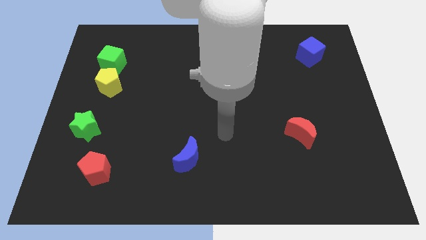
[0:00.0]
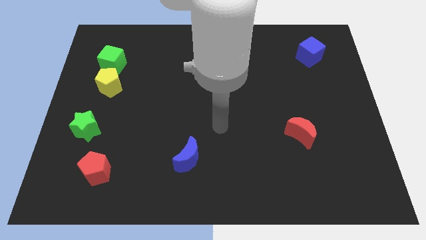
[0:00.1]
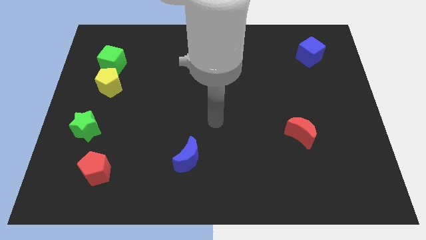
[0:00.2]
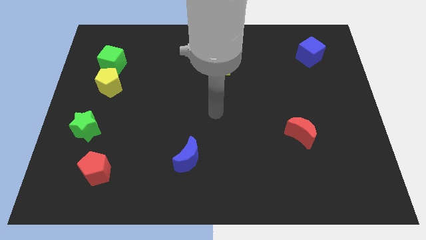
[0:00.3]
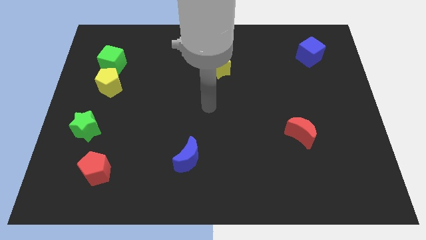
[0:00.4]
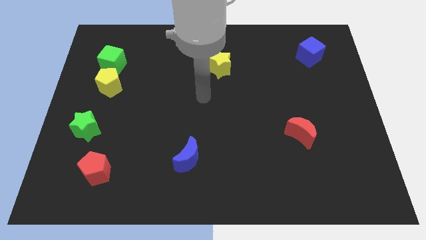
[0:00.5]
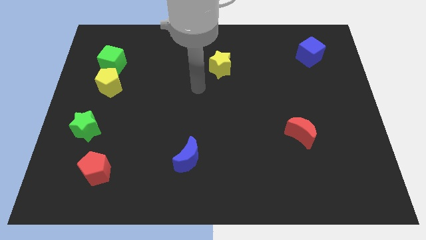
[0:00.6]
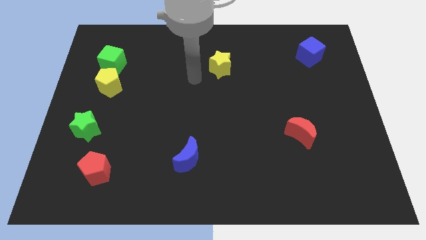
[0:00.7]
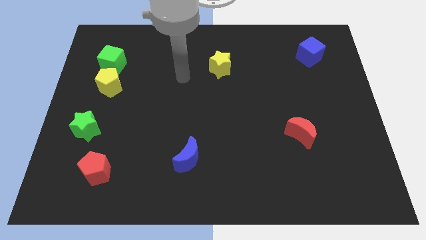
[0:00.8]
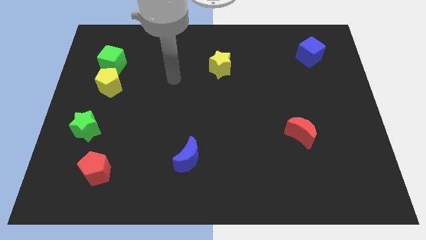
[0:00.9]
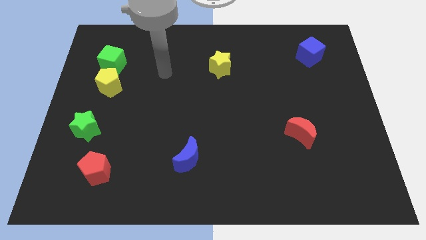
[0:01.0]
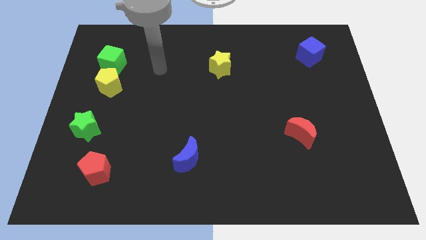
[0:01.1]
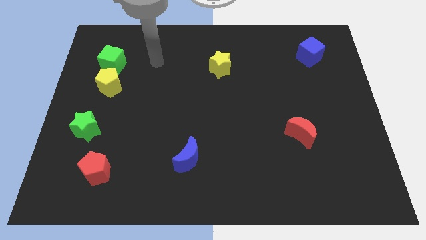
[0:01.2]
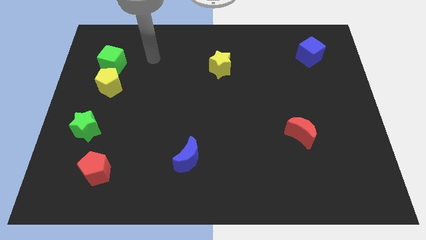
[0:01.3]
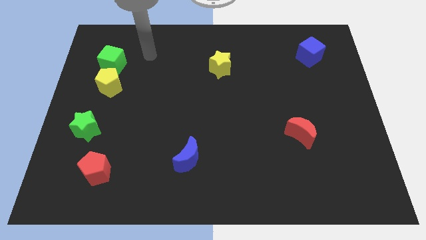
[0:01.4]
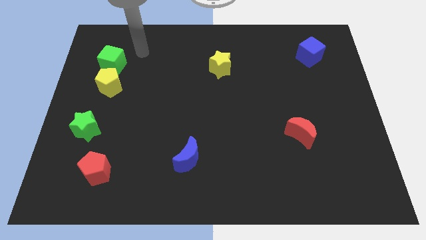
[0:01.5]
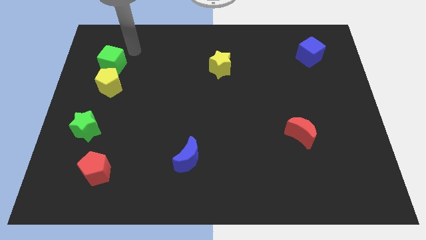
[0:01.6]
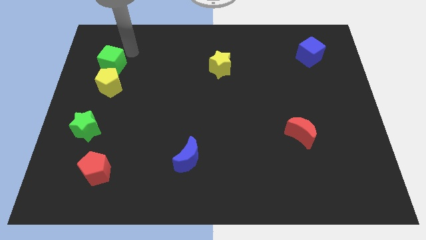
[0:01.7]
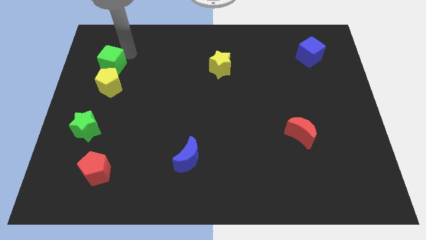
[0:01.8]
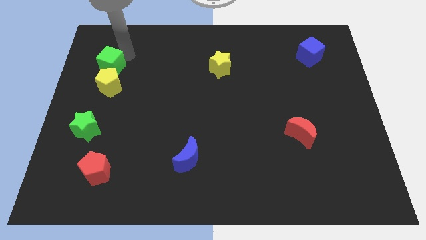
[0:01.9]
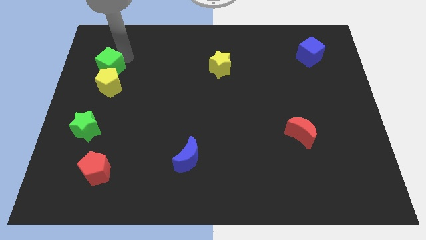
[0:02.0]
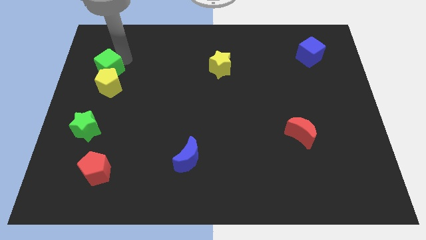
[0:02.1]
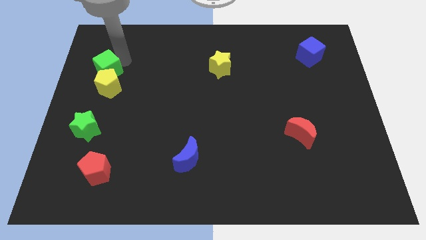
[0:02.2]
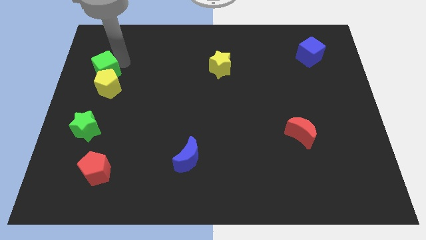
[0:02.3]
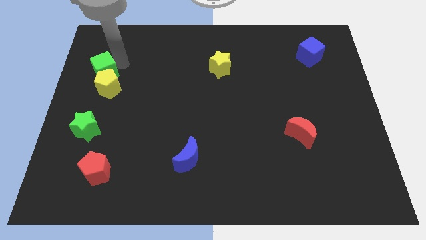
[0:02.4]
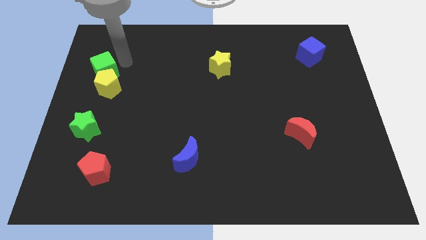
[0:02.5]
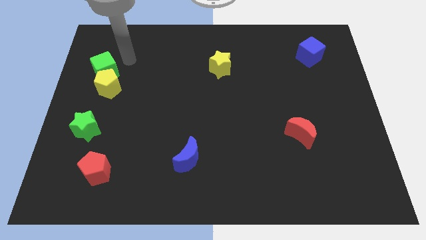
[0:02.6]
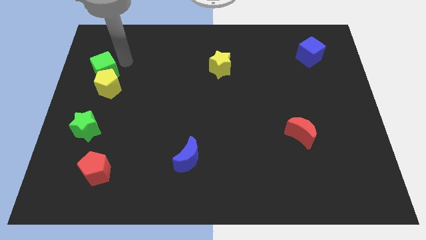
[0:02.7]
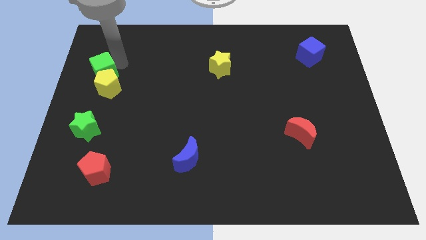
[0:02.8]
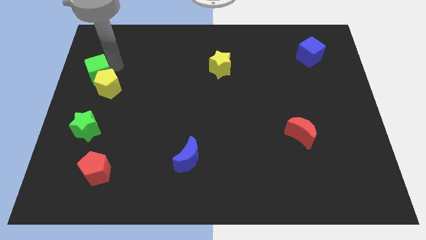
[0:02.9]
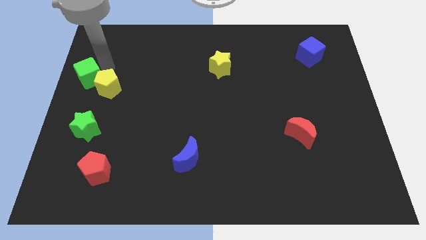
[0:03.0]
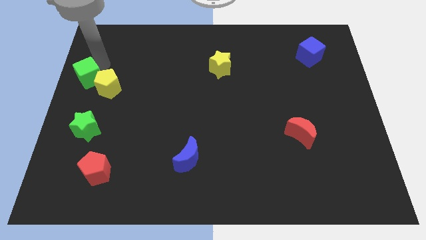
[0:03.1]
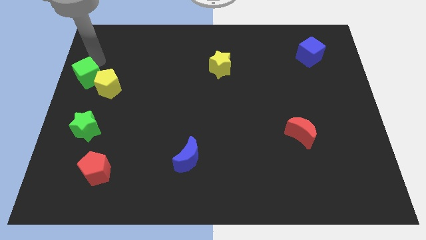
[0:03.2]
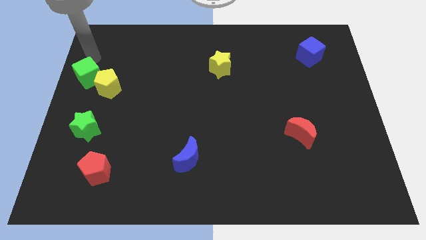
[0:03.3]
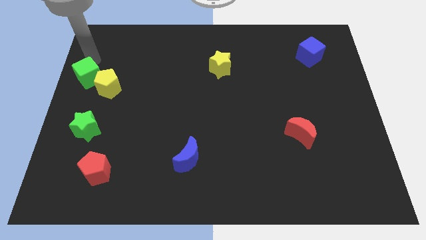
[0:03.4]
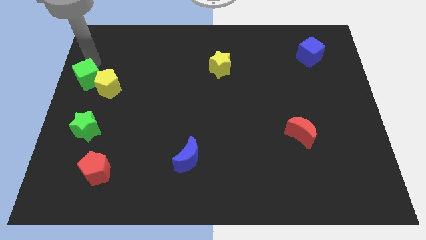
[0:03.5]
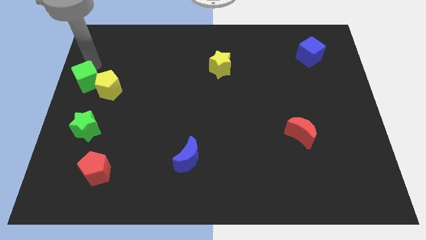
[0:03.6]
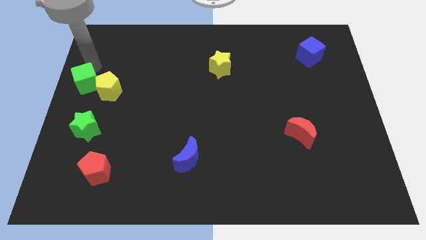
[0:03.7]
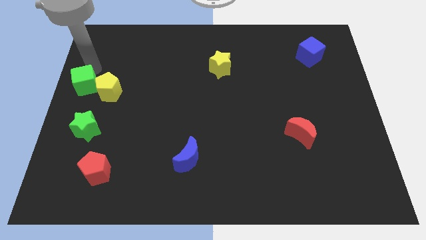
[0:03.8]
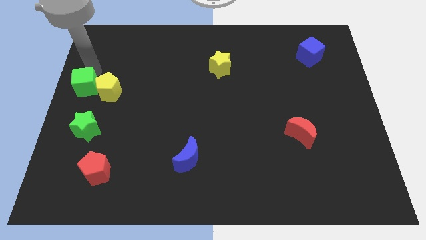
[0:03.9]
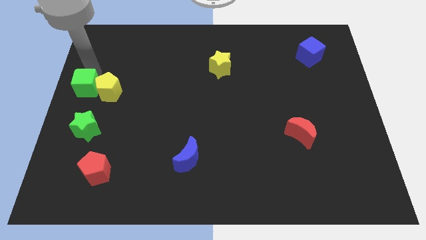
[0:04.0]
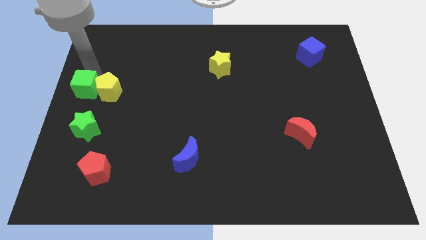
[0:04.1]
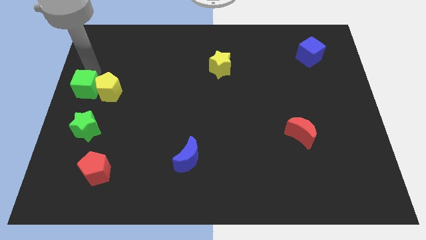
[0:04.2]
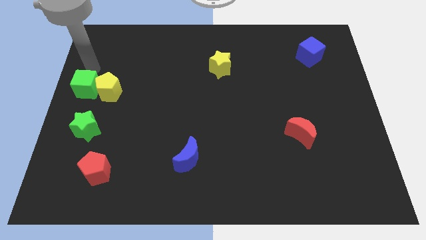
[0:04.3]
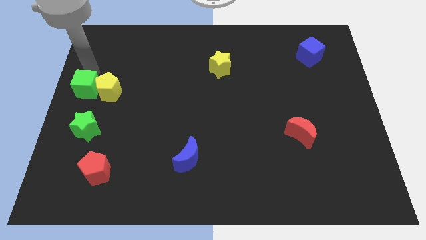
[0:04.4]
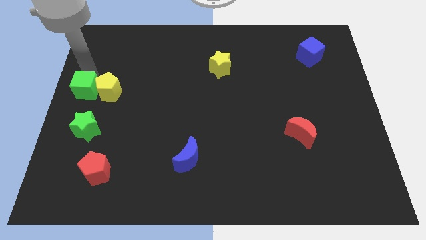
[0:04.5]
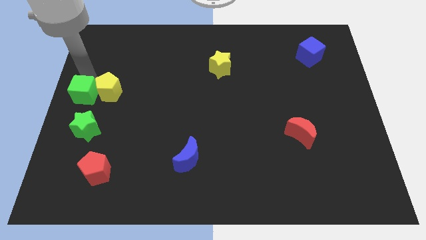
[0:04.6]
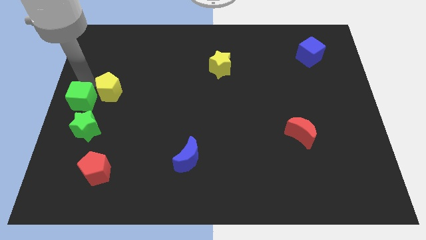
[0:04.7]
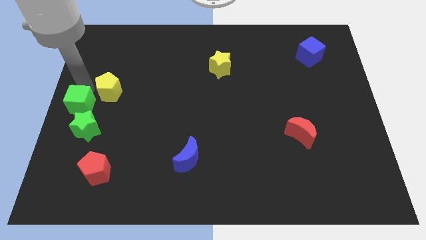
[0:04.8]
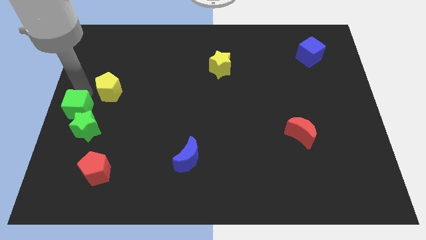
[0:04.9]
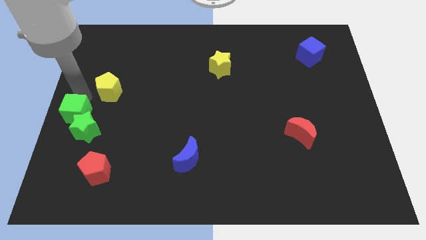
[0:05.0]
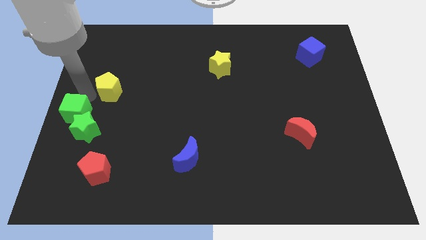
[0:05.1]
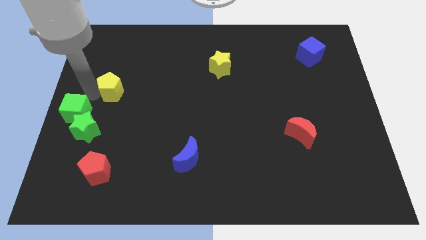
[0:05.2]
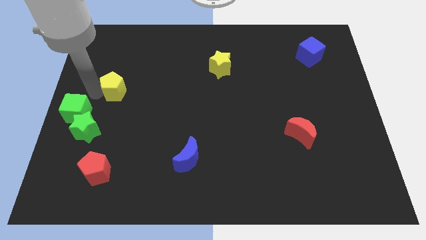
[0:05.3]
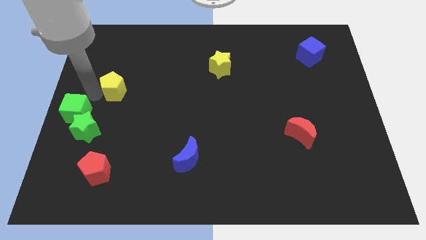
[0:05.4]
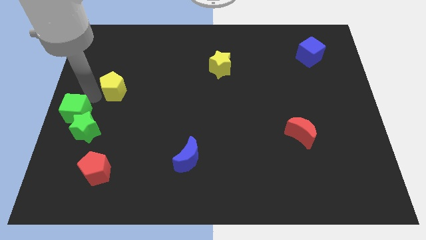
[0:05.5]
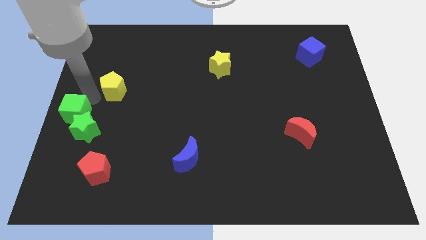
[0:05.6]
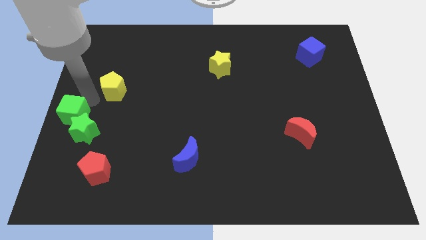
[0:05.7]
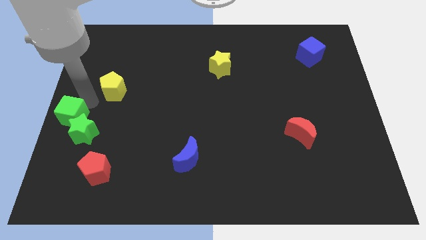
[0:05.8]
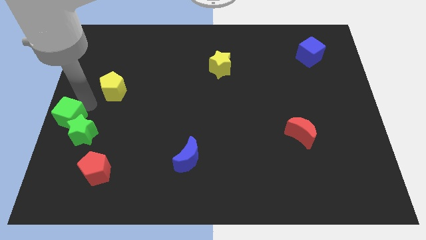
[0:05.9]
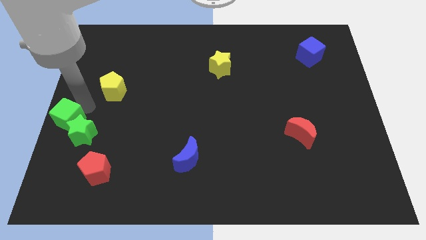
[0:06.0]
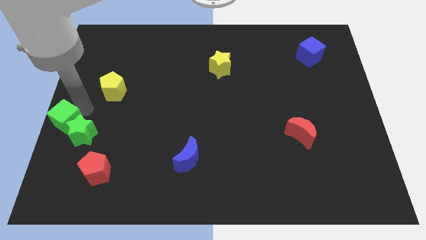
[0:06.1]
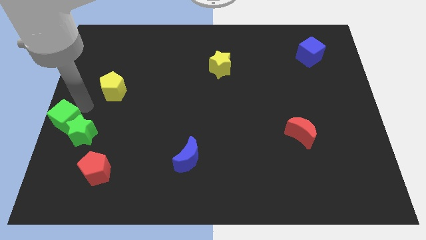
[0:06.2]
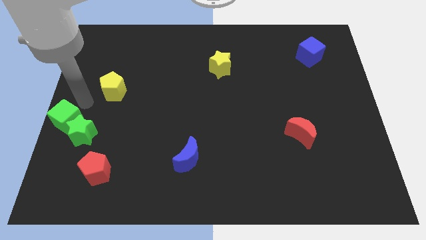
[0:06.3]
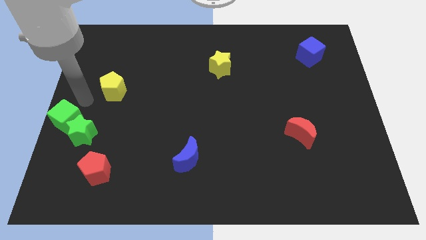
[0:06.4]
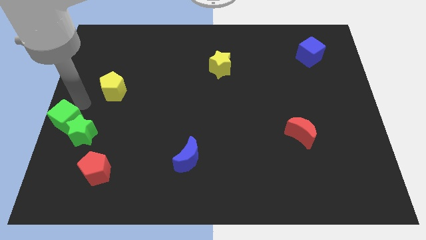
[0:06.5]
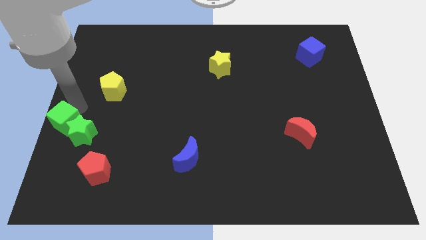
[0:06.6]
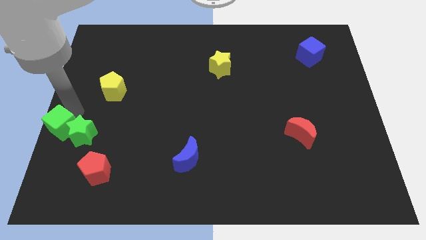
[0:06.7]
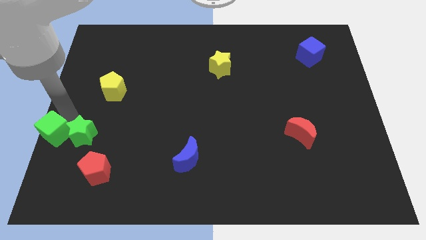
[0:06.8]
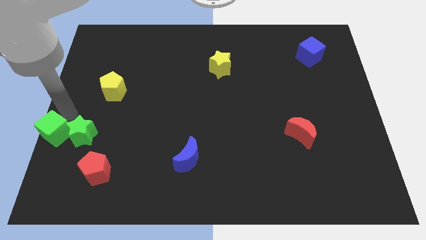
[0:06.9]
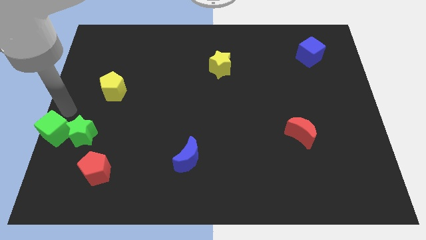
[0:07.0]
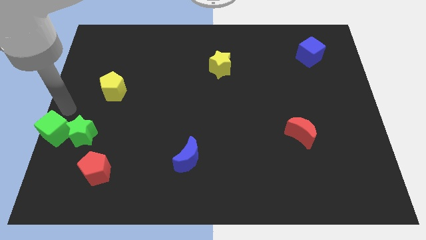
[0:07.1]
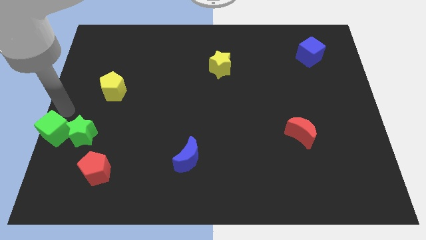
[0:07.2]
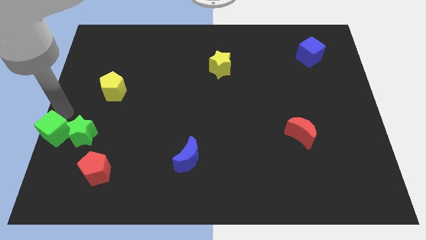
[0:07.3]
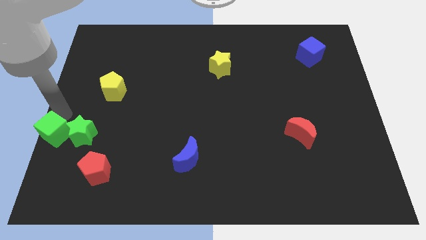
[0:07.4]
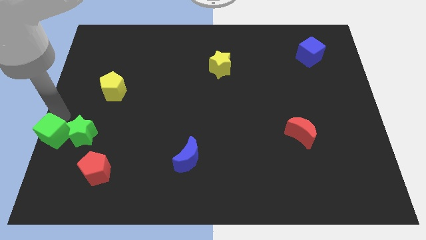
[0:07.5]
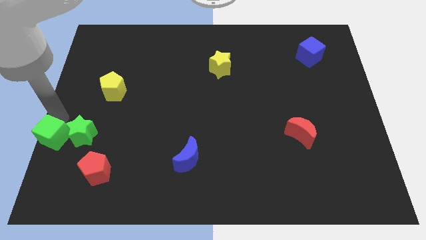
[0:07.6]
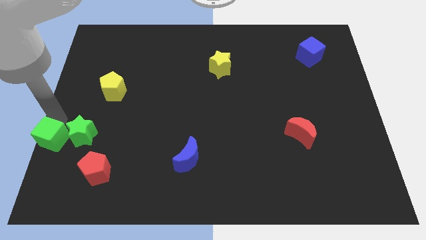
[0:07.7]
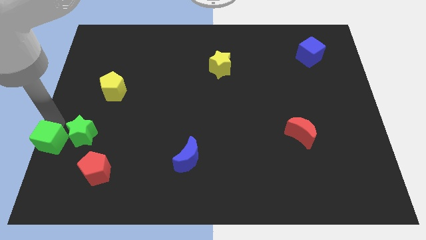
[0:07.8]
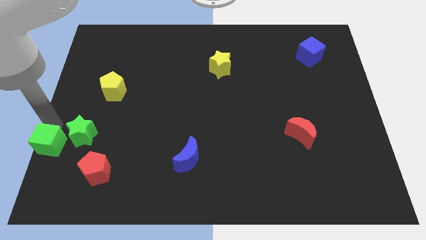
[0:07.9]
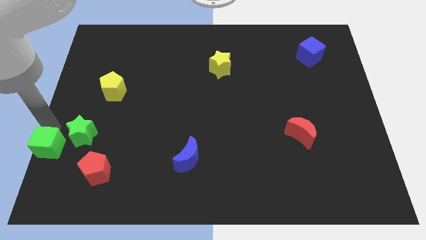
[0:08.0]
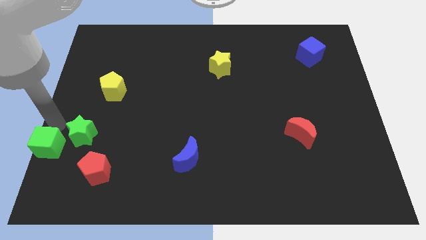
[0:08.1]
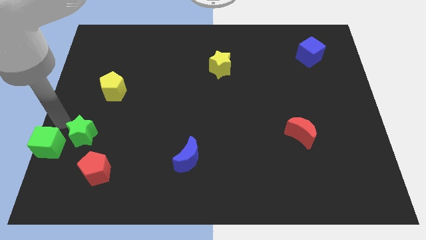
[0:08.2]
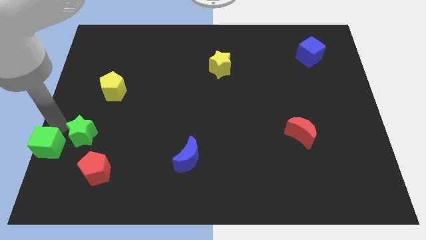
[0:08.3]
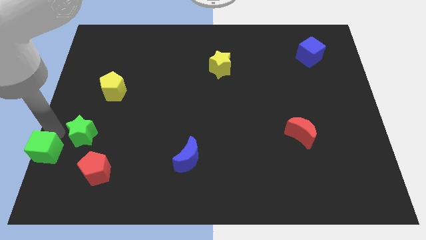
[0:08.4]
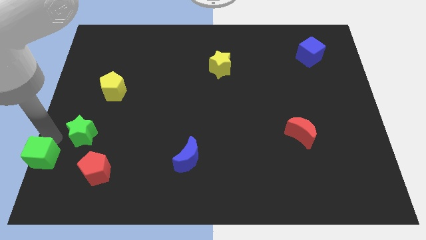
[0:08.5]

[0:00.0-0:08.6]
put the green cube to the bottom left corner
